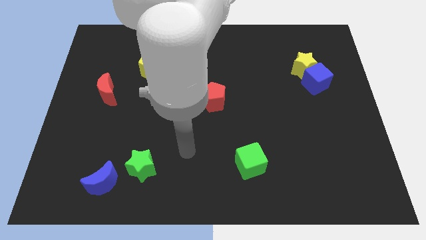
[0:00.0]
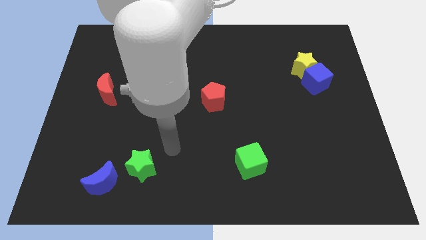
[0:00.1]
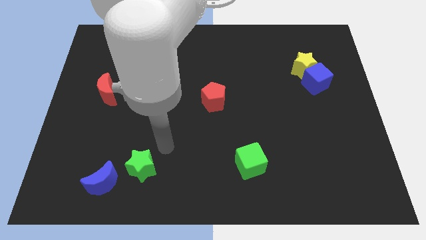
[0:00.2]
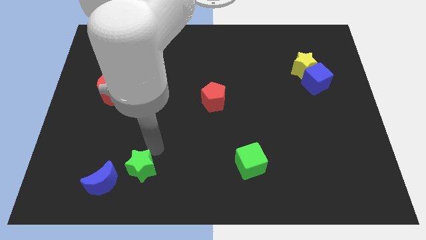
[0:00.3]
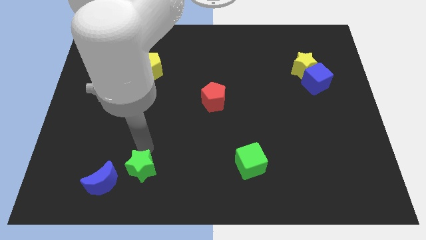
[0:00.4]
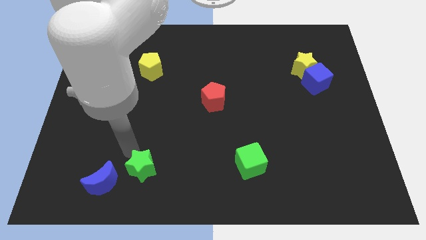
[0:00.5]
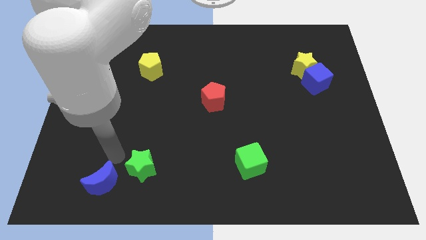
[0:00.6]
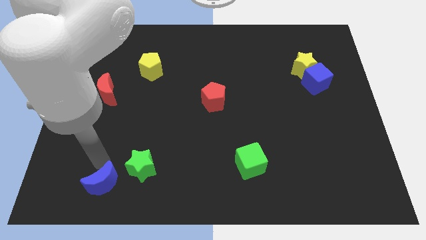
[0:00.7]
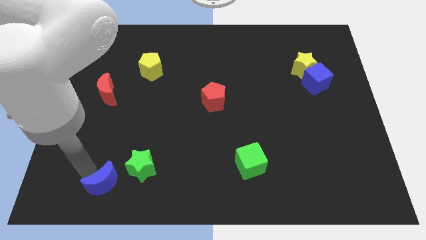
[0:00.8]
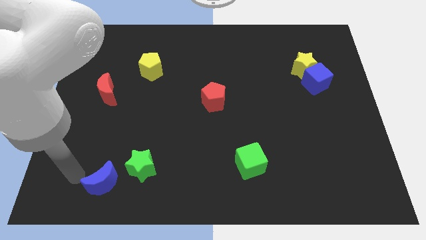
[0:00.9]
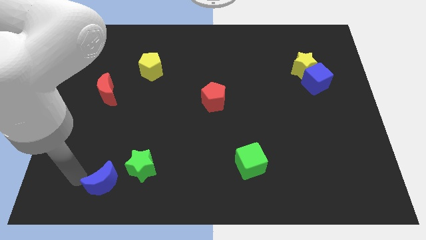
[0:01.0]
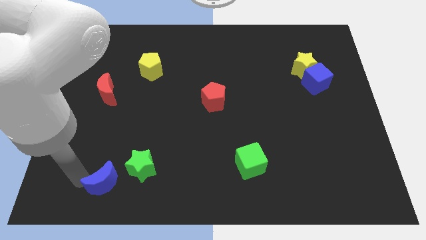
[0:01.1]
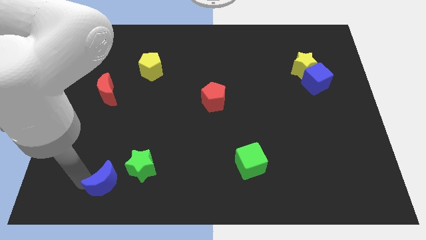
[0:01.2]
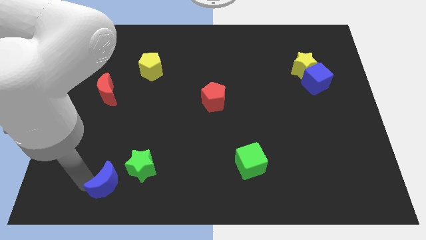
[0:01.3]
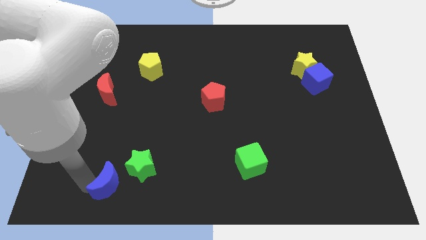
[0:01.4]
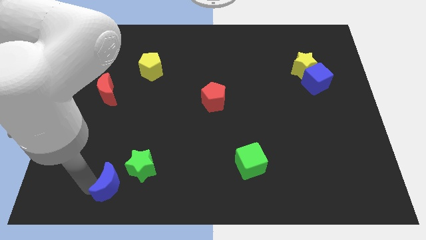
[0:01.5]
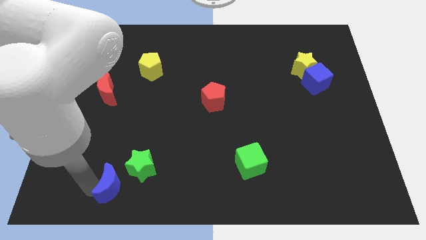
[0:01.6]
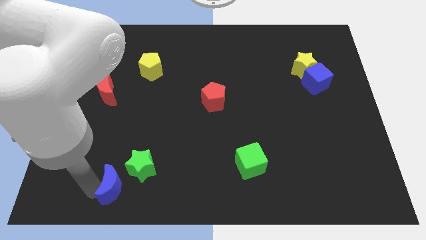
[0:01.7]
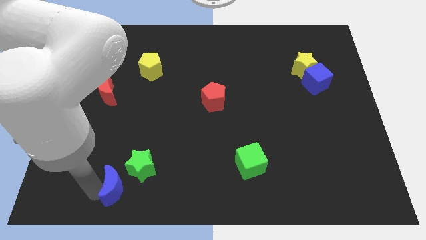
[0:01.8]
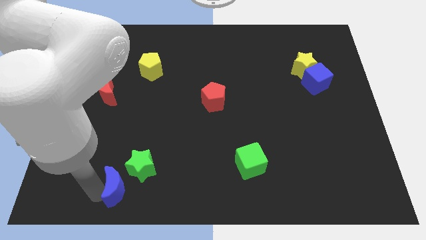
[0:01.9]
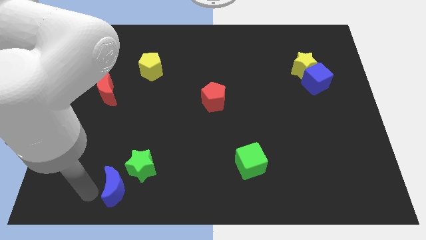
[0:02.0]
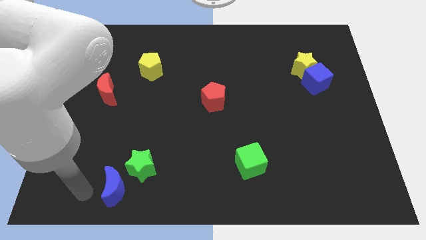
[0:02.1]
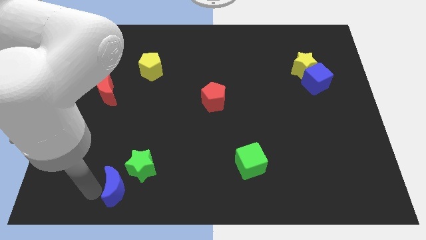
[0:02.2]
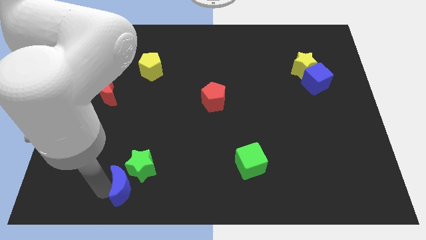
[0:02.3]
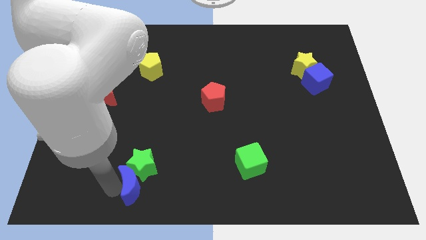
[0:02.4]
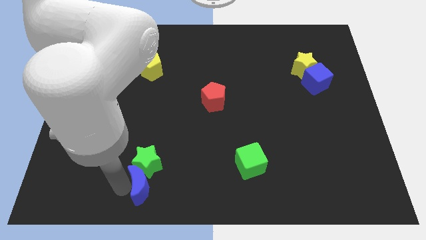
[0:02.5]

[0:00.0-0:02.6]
push the blue moon to the right a bit

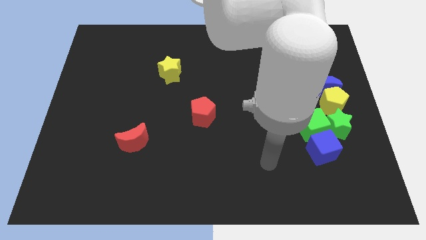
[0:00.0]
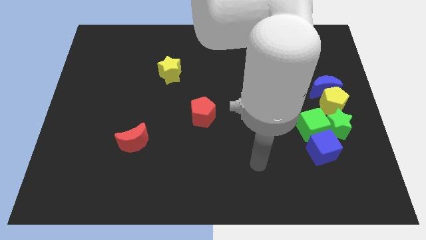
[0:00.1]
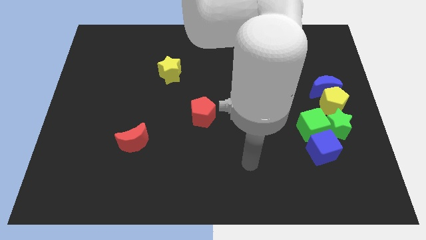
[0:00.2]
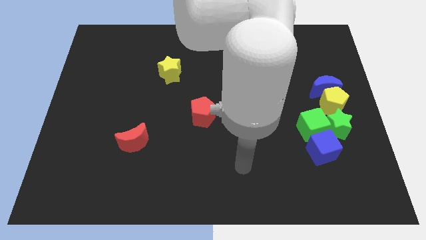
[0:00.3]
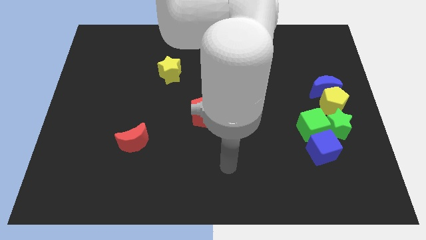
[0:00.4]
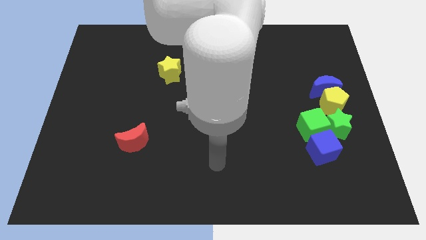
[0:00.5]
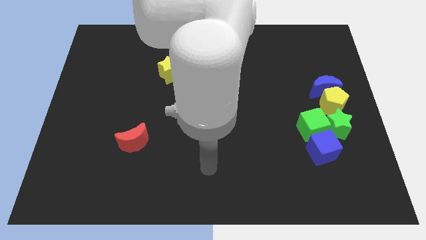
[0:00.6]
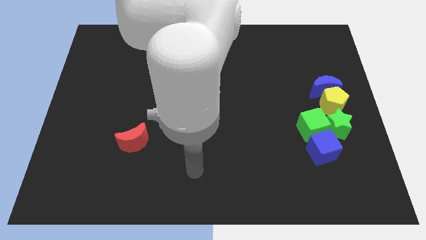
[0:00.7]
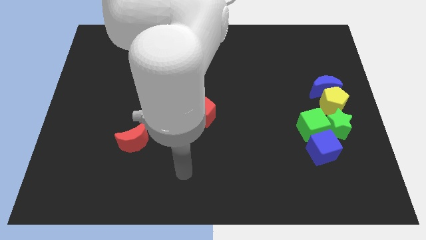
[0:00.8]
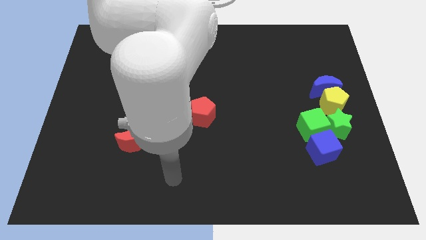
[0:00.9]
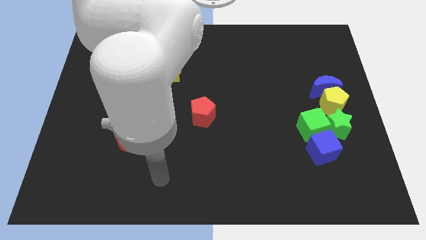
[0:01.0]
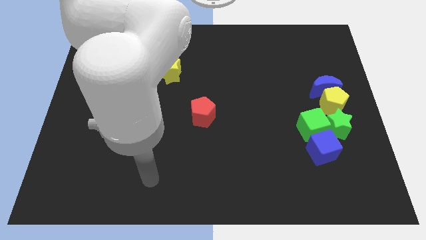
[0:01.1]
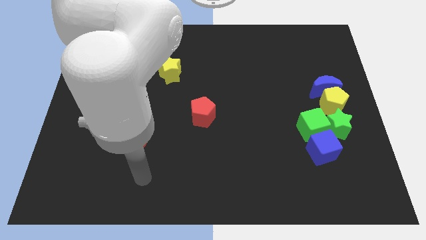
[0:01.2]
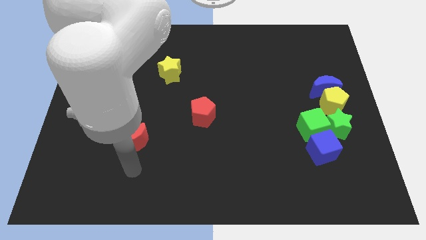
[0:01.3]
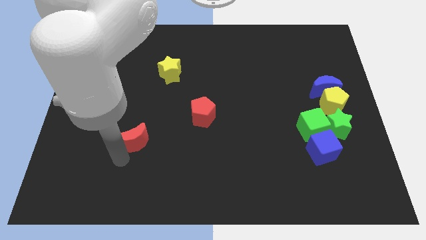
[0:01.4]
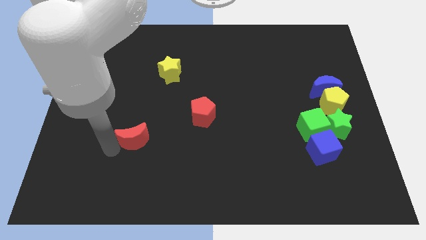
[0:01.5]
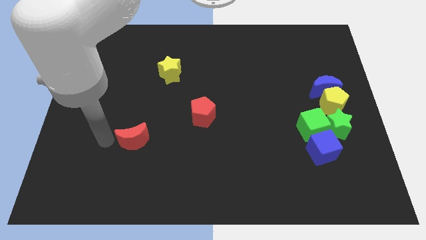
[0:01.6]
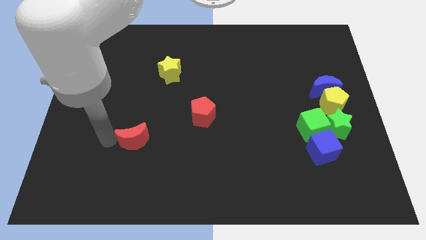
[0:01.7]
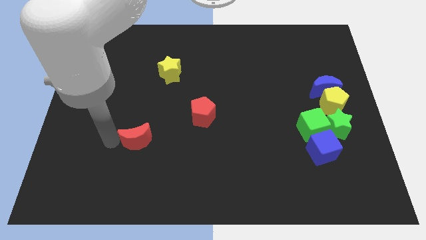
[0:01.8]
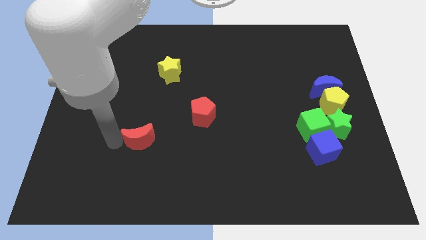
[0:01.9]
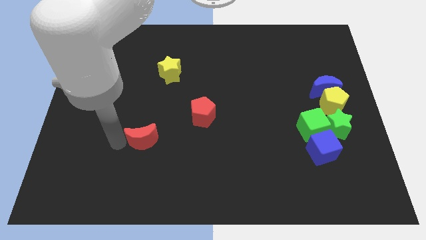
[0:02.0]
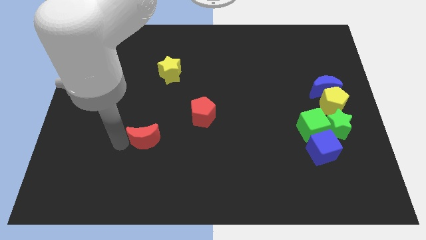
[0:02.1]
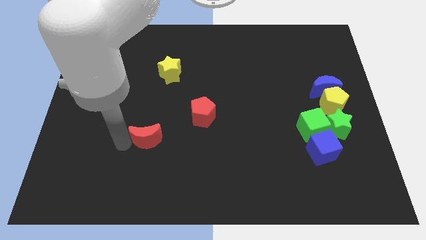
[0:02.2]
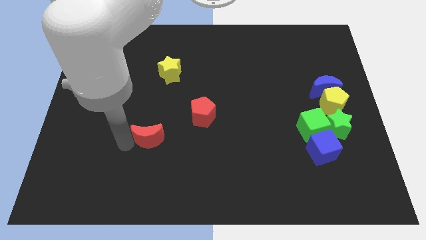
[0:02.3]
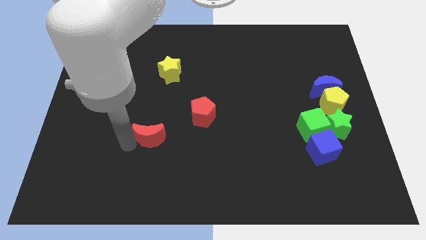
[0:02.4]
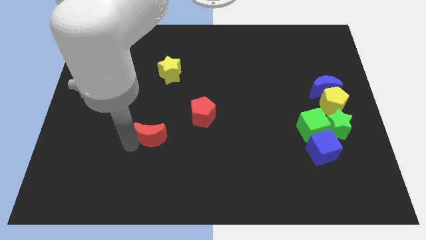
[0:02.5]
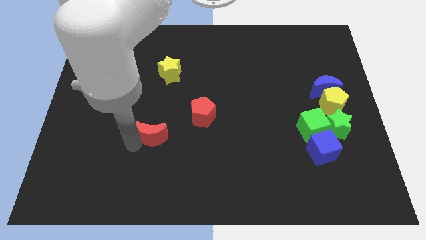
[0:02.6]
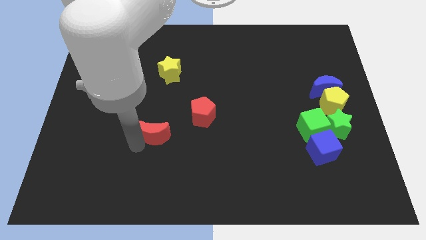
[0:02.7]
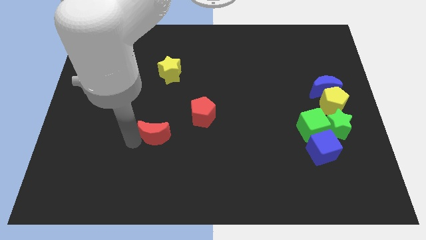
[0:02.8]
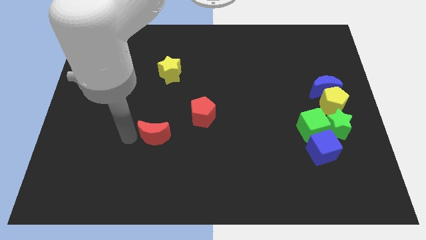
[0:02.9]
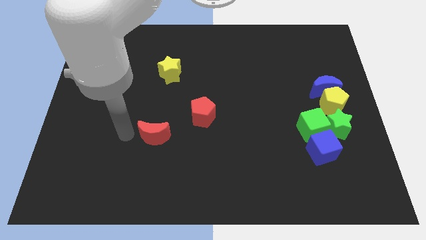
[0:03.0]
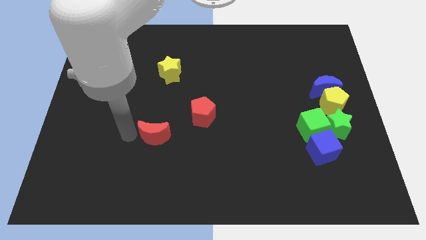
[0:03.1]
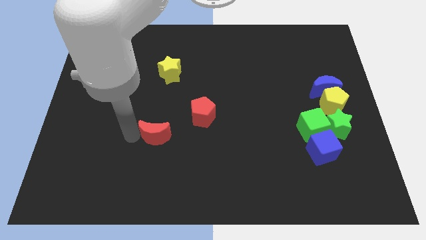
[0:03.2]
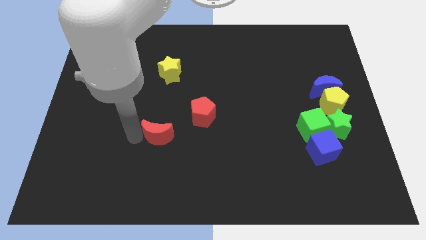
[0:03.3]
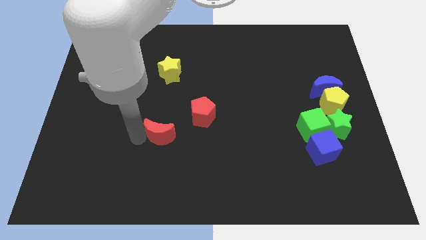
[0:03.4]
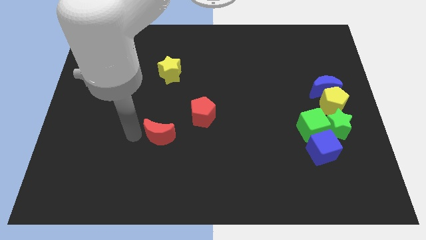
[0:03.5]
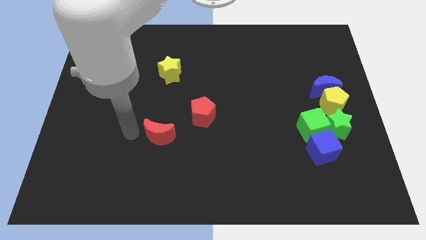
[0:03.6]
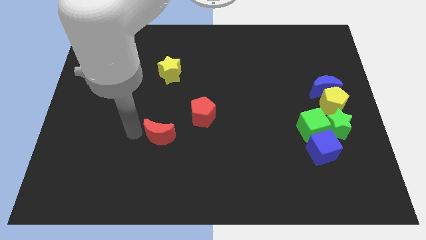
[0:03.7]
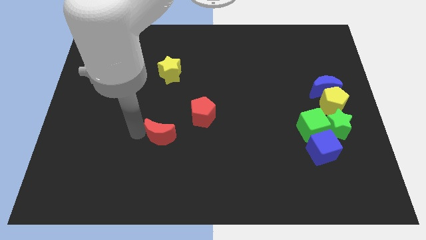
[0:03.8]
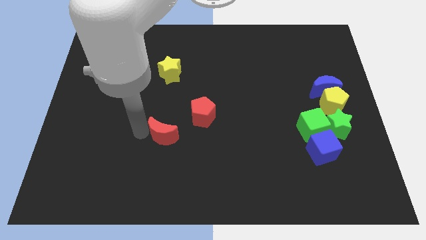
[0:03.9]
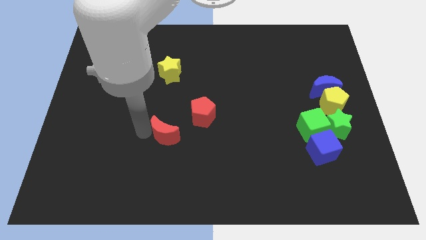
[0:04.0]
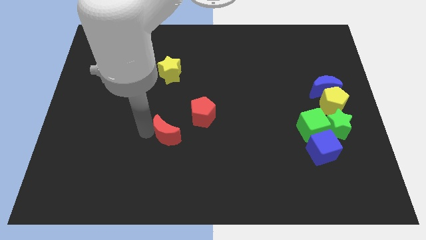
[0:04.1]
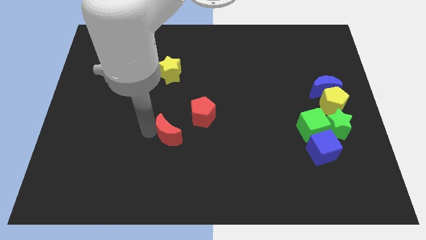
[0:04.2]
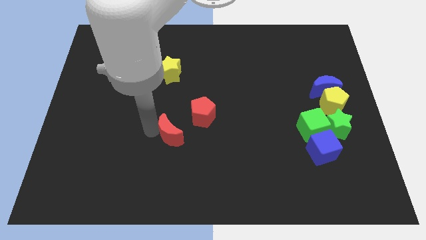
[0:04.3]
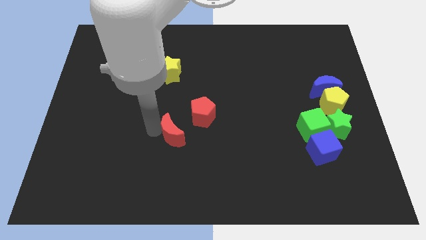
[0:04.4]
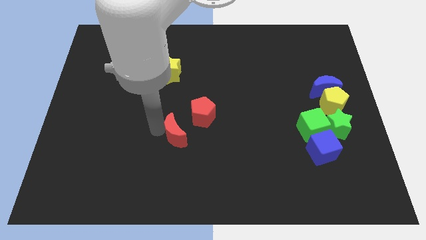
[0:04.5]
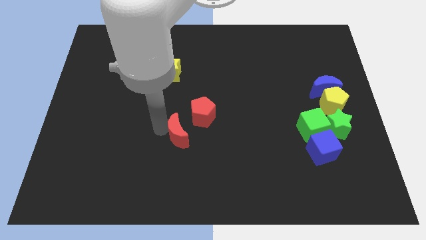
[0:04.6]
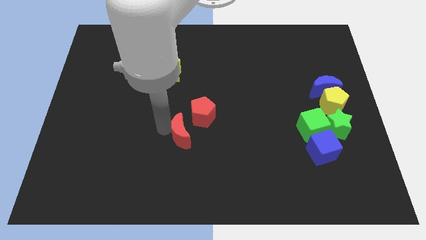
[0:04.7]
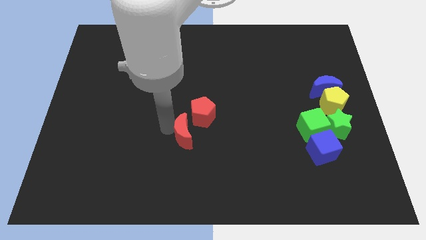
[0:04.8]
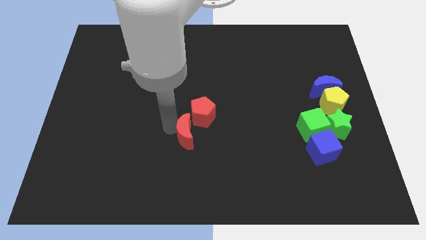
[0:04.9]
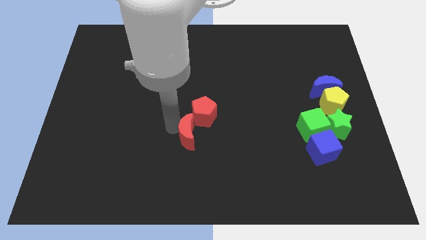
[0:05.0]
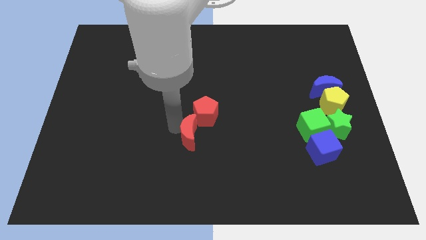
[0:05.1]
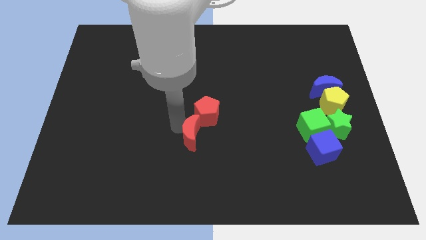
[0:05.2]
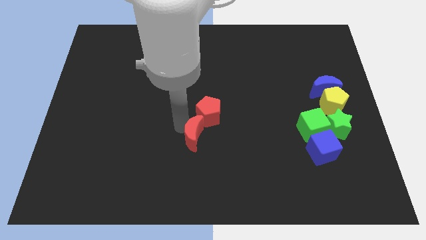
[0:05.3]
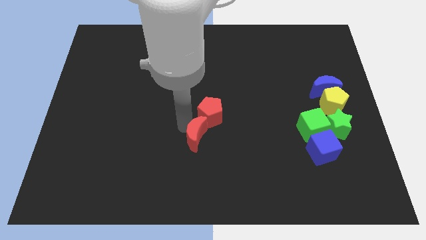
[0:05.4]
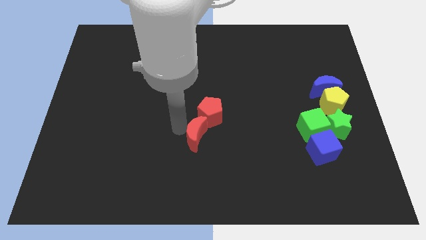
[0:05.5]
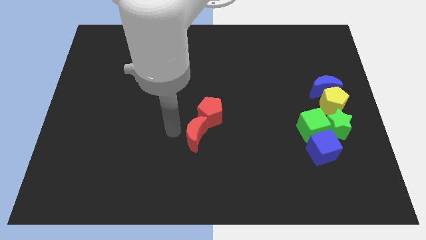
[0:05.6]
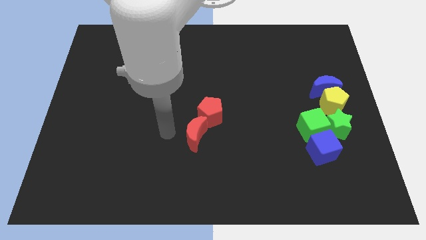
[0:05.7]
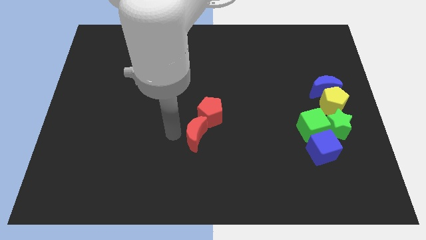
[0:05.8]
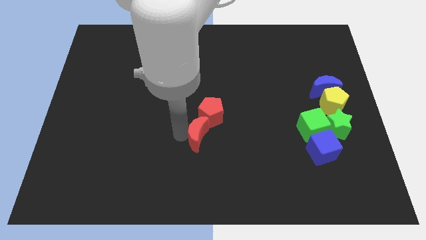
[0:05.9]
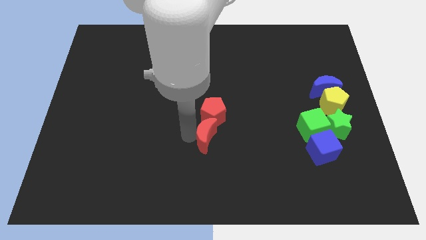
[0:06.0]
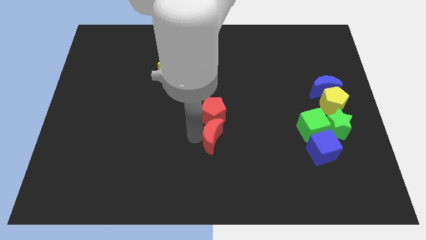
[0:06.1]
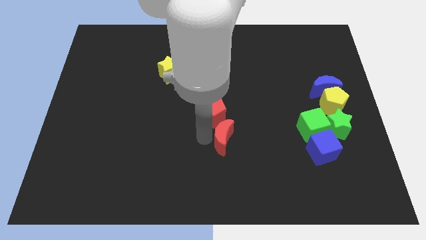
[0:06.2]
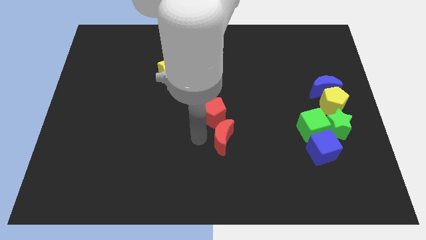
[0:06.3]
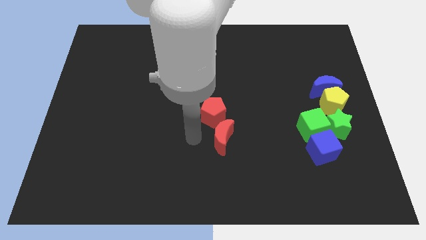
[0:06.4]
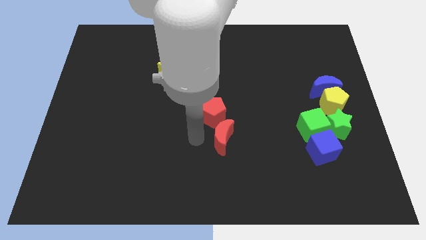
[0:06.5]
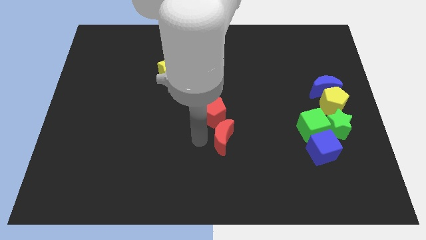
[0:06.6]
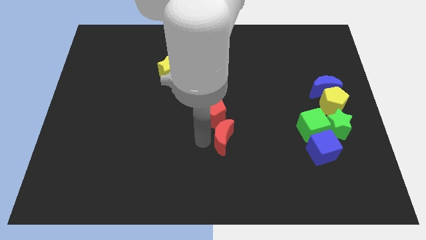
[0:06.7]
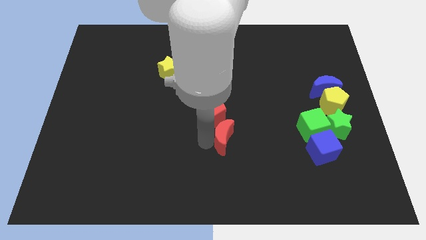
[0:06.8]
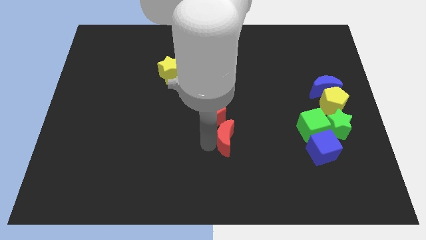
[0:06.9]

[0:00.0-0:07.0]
slide the red moon to the right
